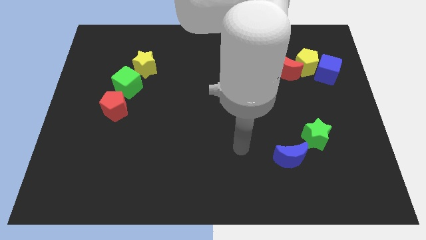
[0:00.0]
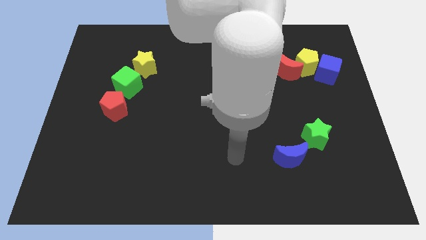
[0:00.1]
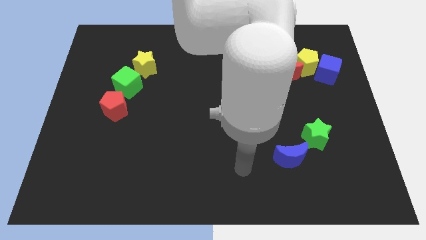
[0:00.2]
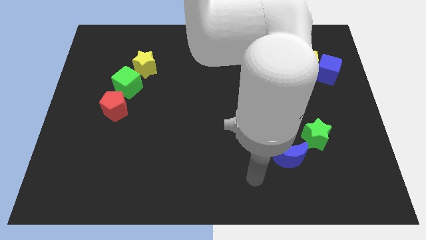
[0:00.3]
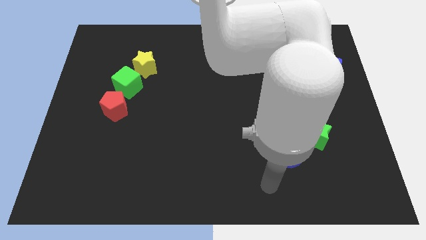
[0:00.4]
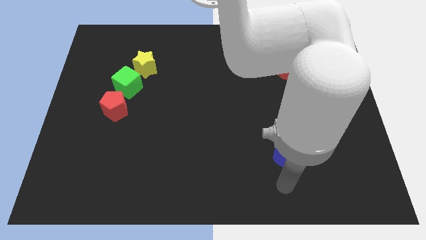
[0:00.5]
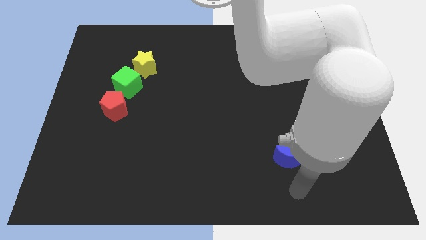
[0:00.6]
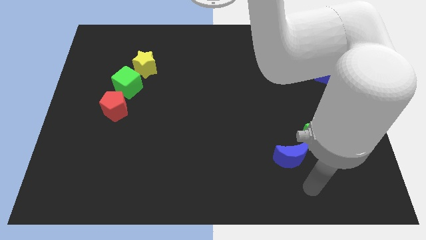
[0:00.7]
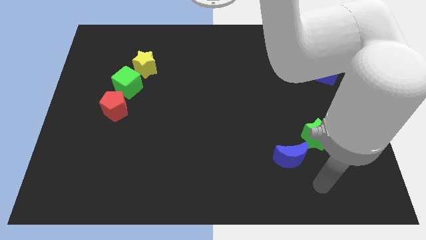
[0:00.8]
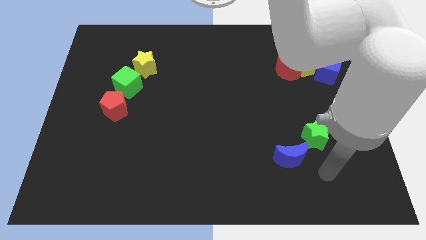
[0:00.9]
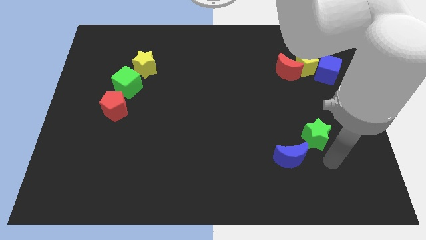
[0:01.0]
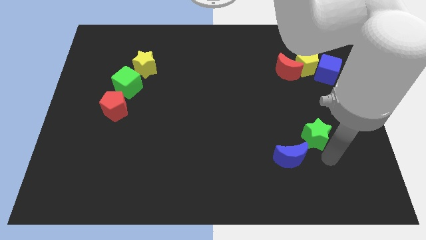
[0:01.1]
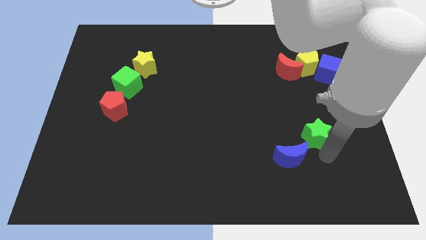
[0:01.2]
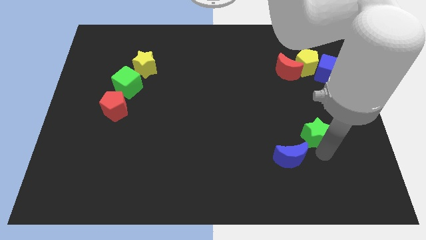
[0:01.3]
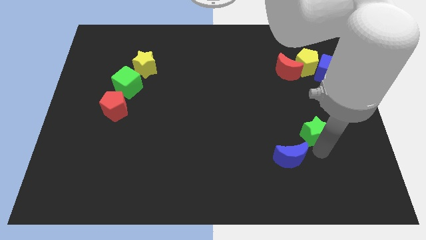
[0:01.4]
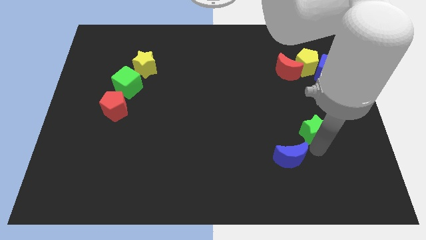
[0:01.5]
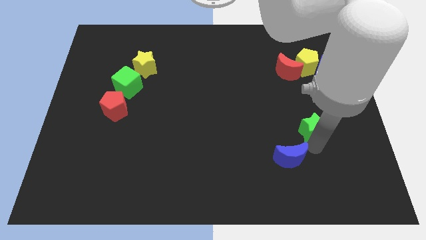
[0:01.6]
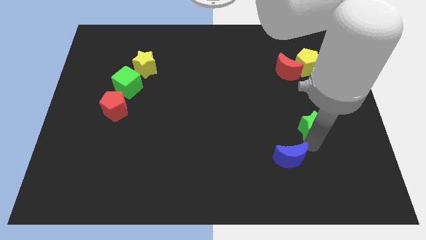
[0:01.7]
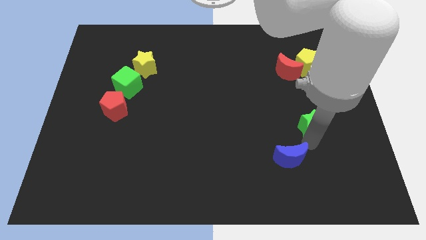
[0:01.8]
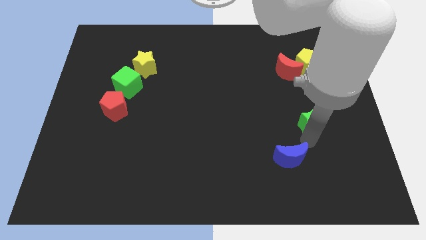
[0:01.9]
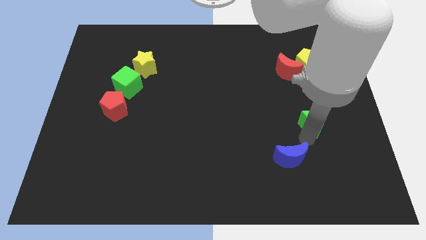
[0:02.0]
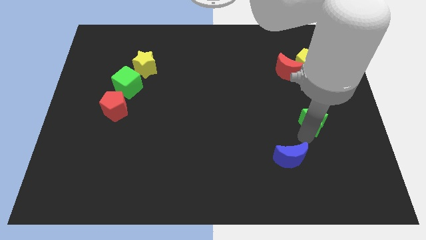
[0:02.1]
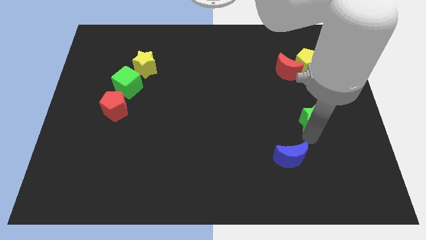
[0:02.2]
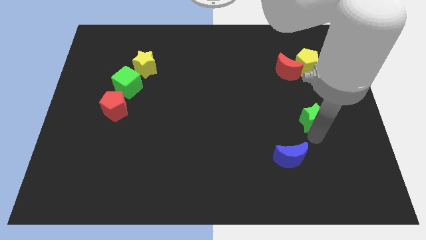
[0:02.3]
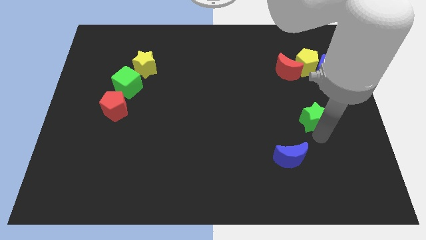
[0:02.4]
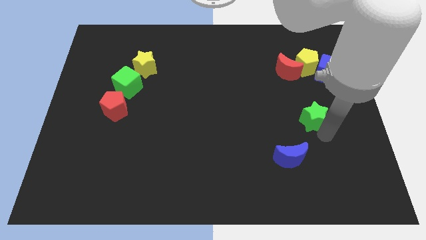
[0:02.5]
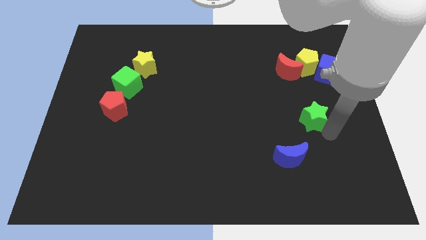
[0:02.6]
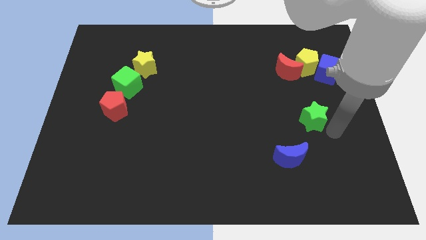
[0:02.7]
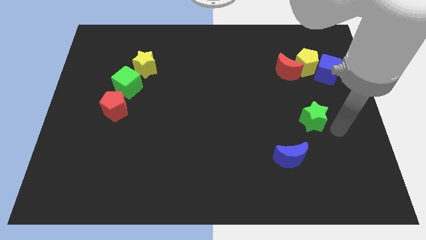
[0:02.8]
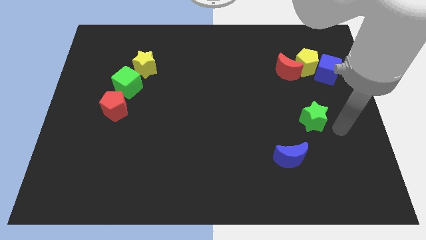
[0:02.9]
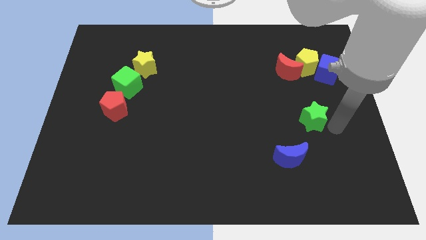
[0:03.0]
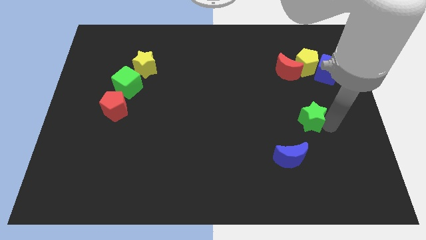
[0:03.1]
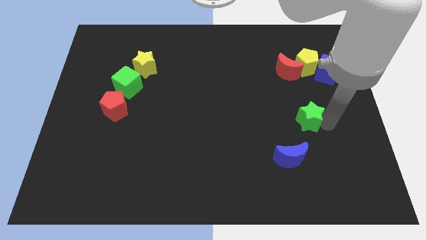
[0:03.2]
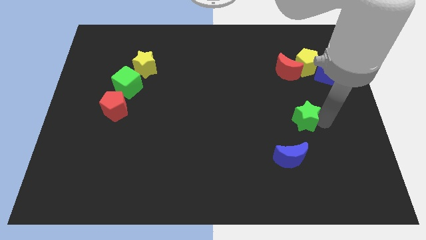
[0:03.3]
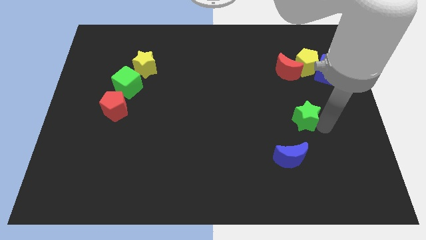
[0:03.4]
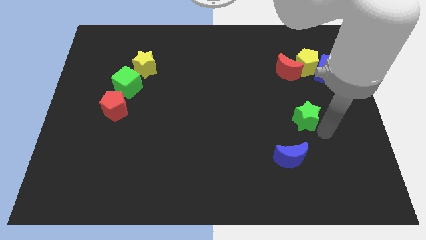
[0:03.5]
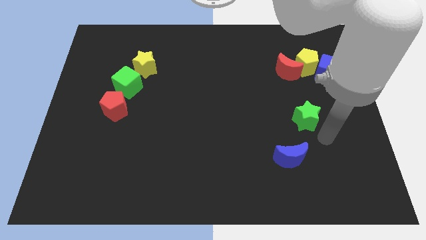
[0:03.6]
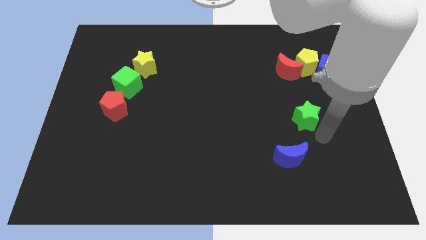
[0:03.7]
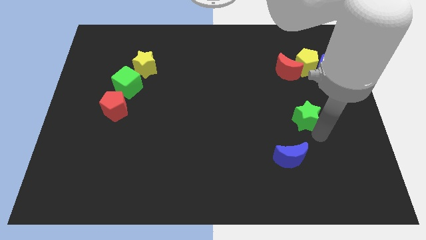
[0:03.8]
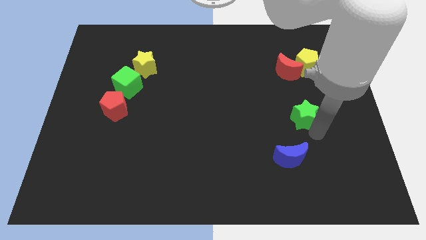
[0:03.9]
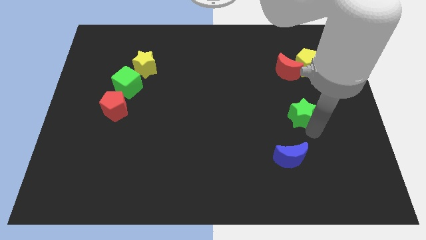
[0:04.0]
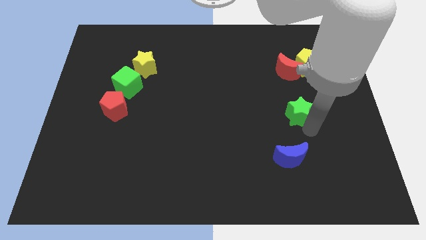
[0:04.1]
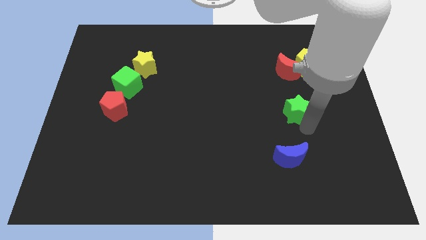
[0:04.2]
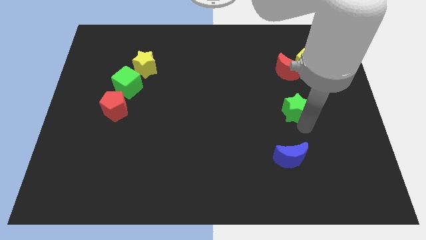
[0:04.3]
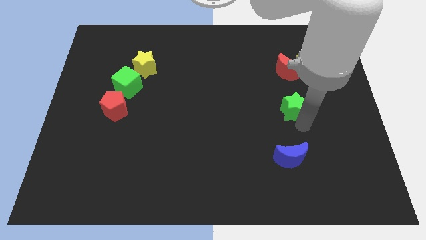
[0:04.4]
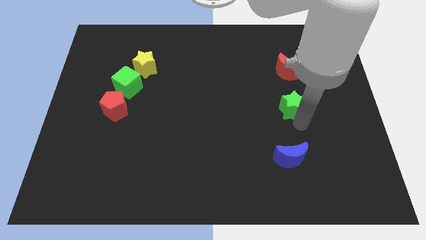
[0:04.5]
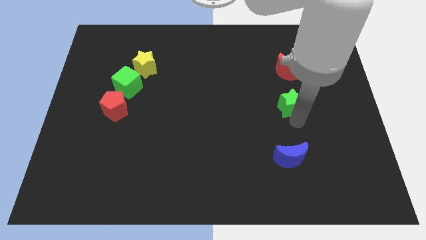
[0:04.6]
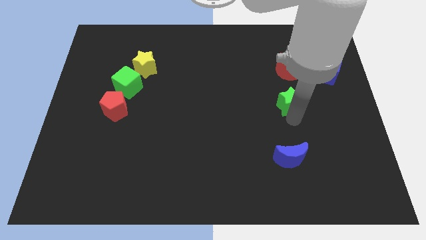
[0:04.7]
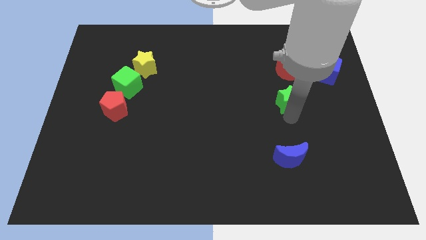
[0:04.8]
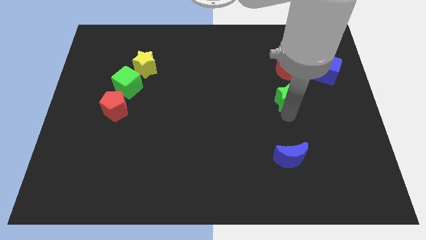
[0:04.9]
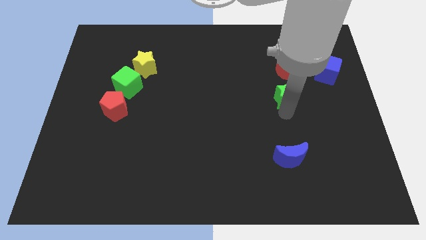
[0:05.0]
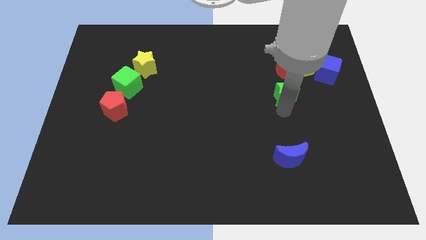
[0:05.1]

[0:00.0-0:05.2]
move the green star to the bottom left side of the red moon

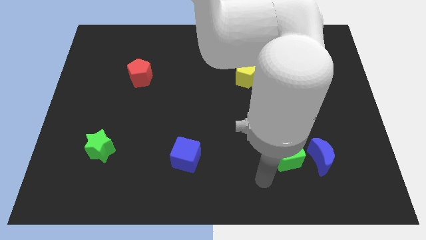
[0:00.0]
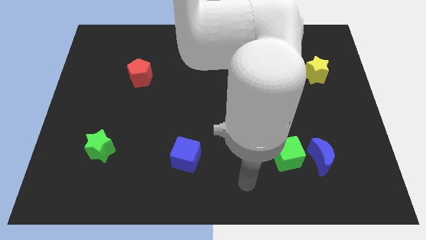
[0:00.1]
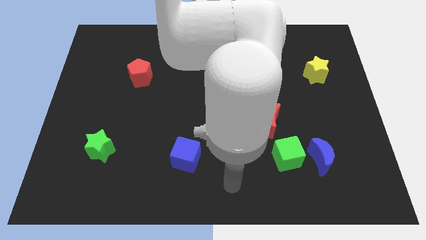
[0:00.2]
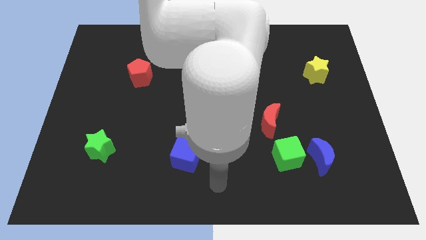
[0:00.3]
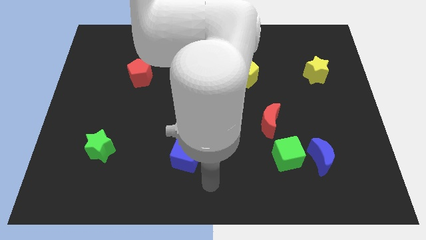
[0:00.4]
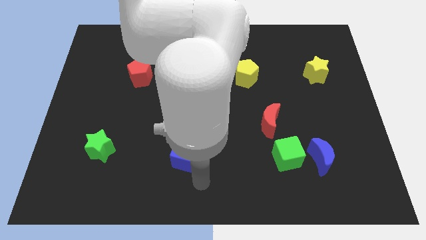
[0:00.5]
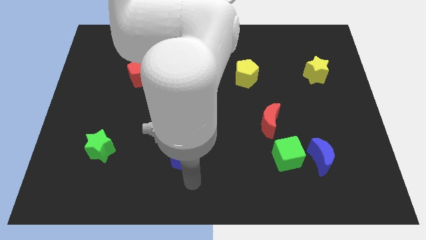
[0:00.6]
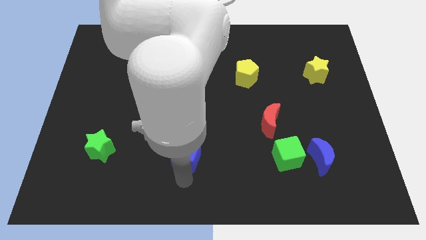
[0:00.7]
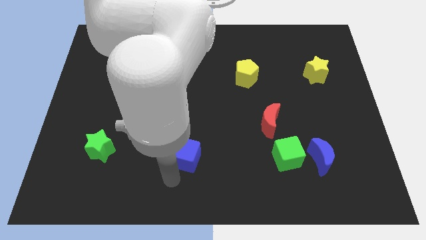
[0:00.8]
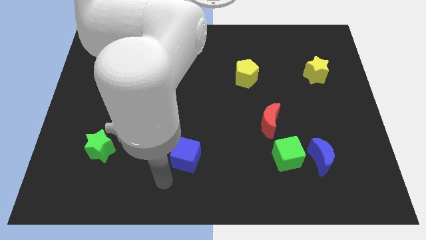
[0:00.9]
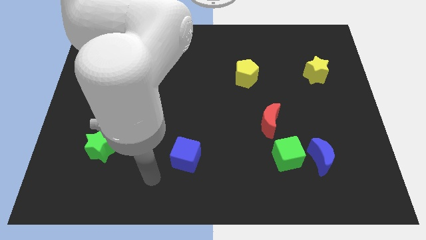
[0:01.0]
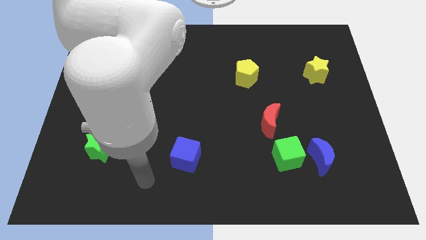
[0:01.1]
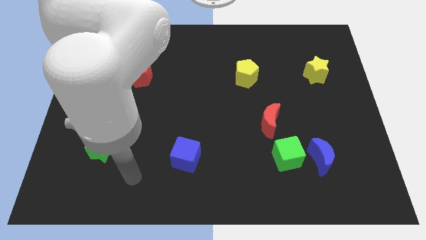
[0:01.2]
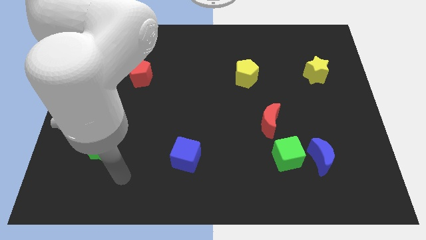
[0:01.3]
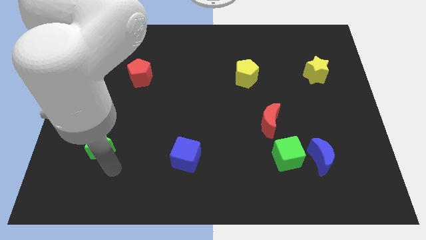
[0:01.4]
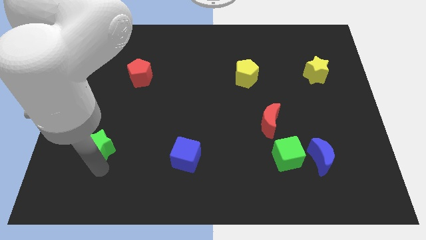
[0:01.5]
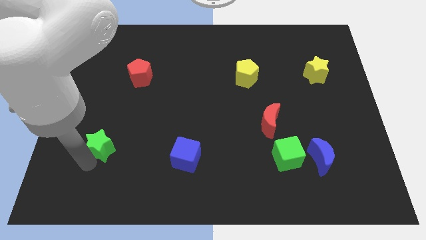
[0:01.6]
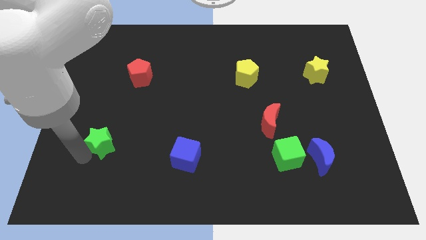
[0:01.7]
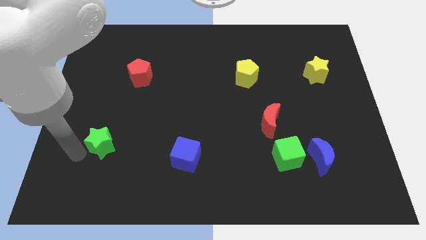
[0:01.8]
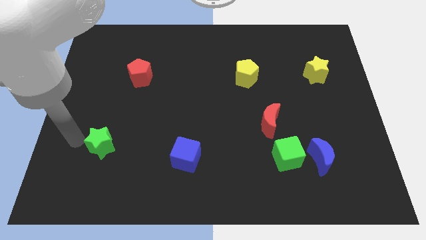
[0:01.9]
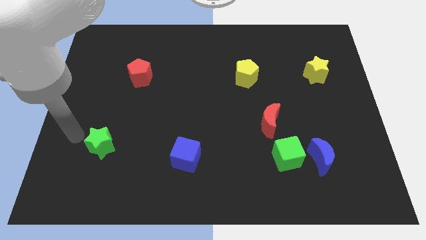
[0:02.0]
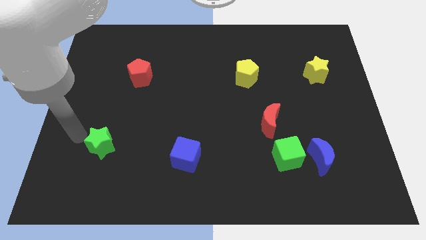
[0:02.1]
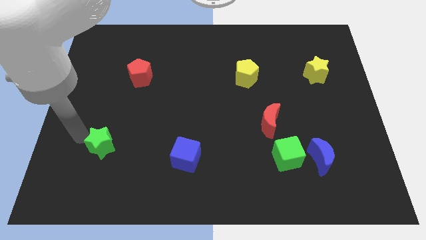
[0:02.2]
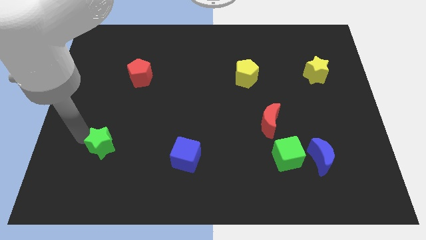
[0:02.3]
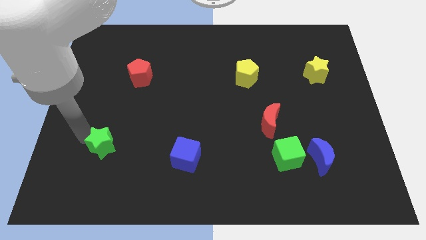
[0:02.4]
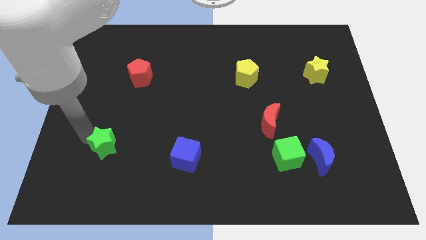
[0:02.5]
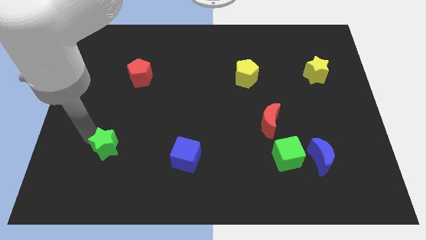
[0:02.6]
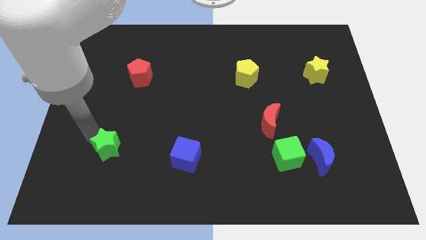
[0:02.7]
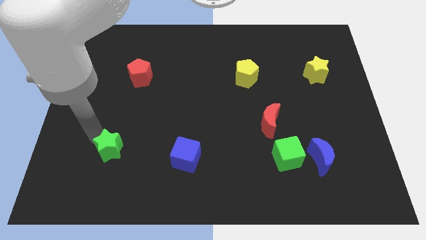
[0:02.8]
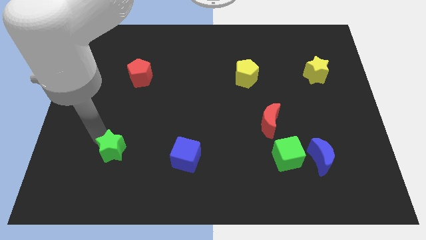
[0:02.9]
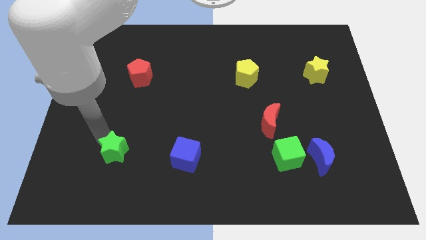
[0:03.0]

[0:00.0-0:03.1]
move the green star just left of the blue cube
